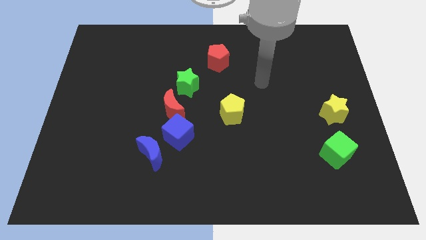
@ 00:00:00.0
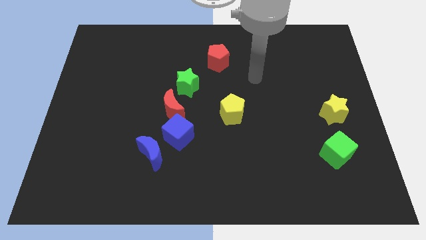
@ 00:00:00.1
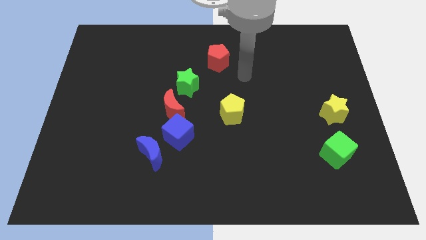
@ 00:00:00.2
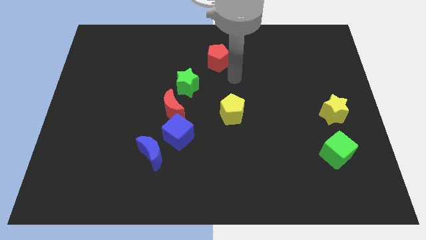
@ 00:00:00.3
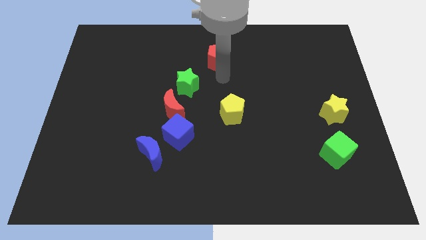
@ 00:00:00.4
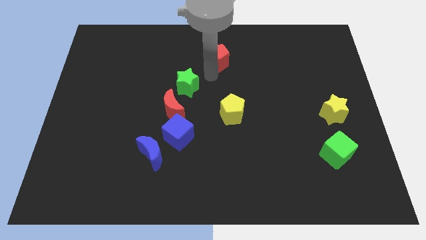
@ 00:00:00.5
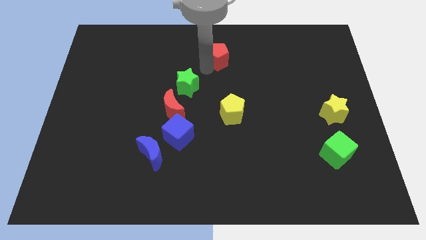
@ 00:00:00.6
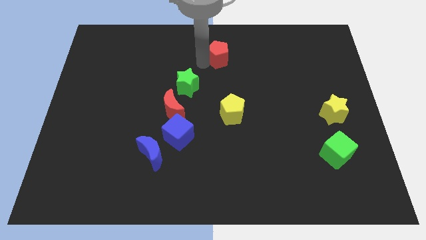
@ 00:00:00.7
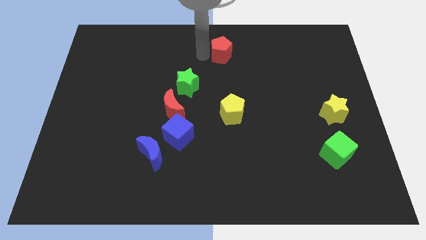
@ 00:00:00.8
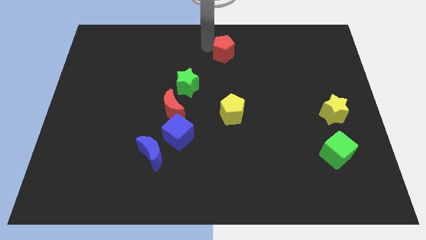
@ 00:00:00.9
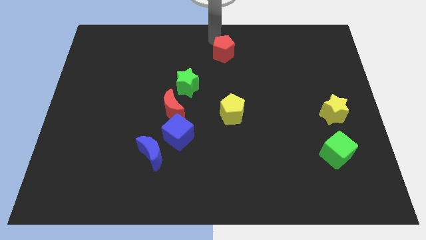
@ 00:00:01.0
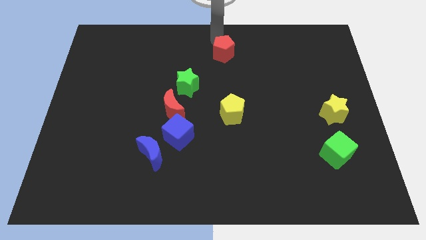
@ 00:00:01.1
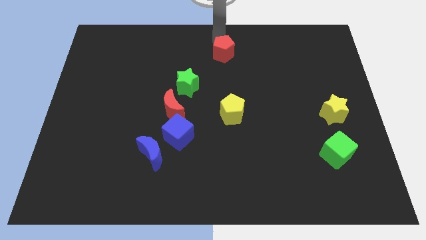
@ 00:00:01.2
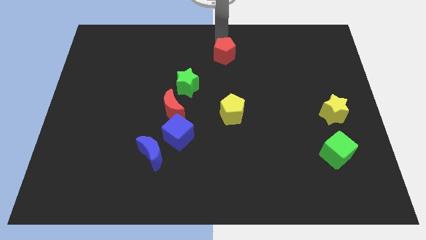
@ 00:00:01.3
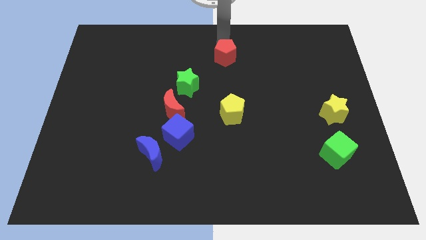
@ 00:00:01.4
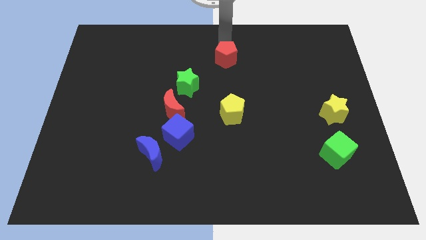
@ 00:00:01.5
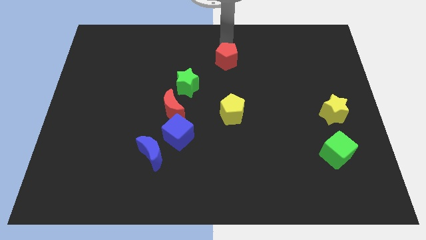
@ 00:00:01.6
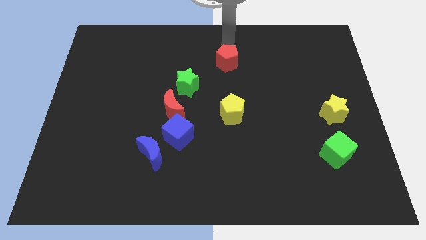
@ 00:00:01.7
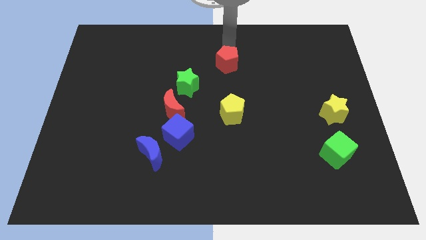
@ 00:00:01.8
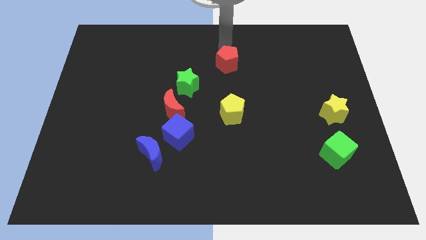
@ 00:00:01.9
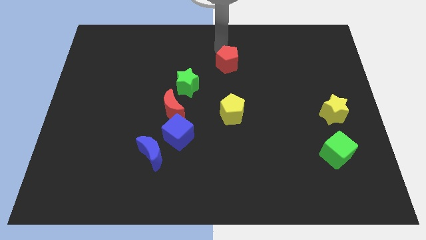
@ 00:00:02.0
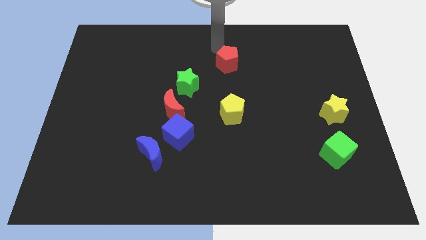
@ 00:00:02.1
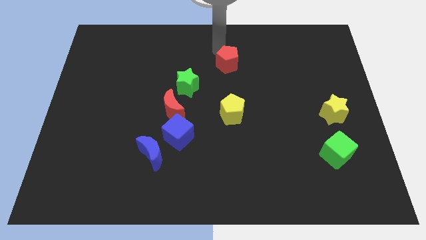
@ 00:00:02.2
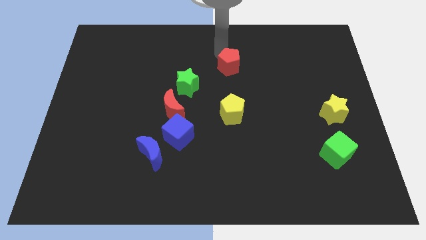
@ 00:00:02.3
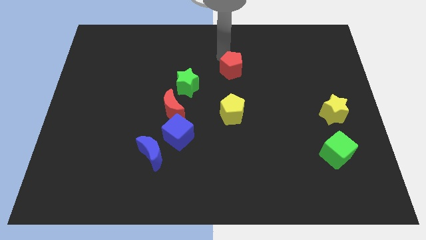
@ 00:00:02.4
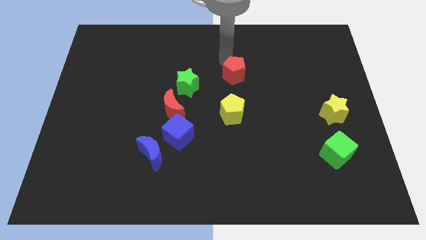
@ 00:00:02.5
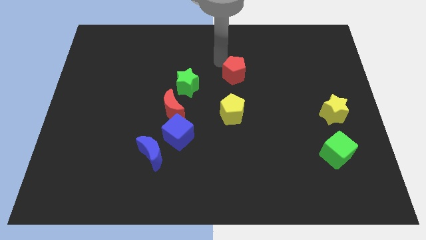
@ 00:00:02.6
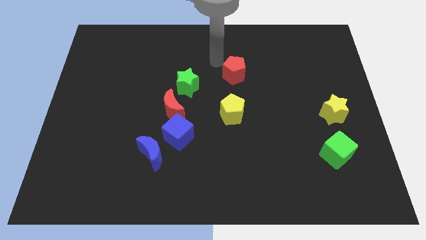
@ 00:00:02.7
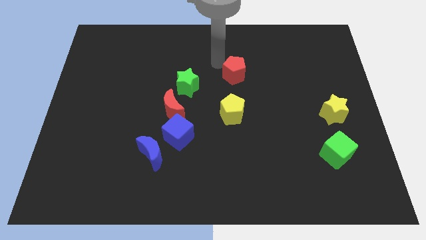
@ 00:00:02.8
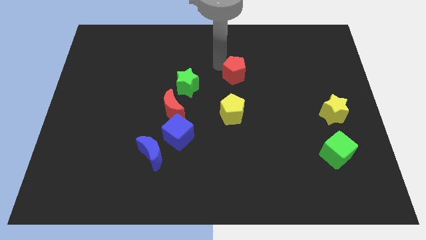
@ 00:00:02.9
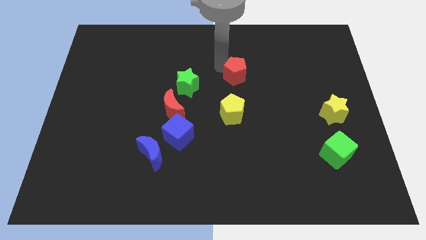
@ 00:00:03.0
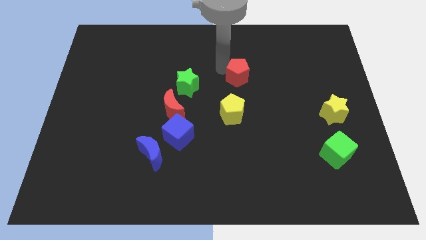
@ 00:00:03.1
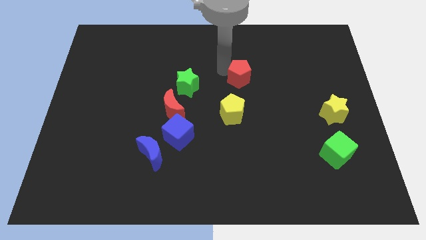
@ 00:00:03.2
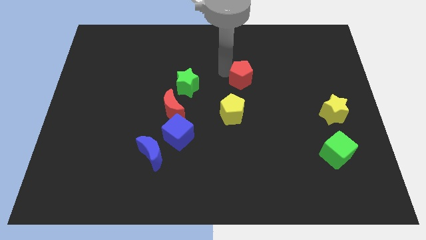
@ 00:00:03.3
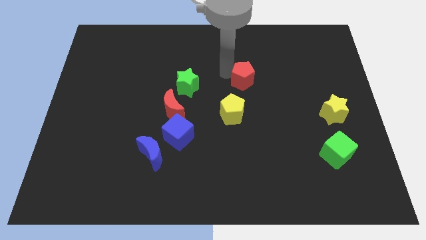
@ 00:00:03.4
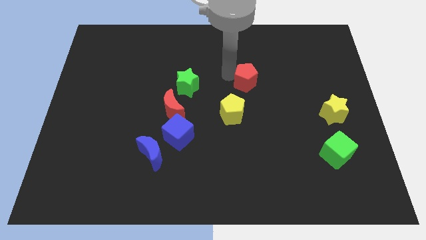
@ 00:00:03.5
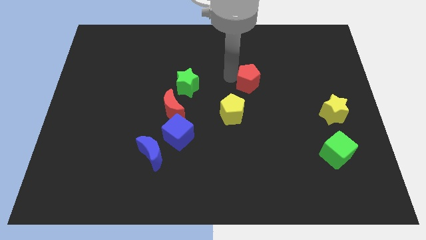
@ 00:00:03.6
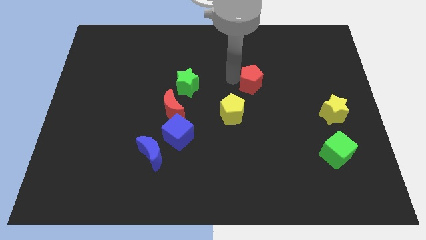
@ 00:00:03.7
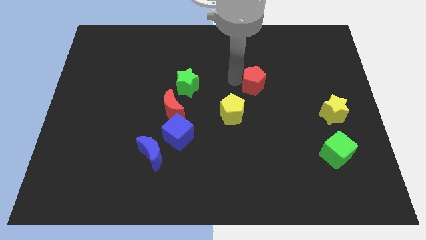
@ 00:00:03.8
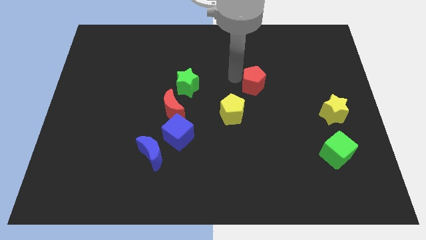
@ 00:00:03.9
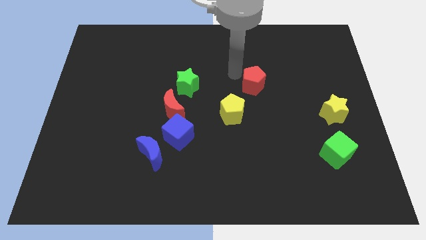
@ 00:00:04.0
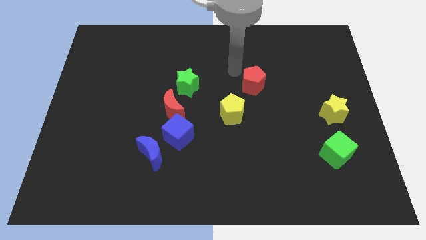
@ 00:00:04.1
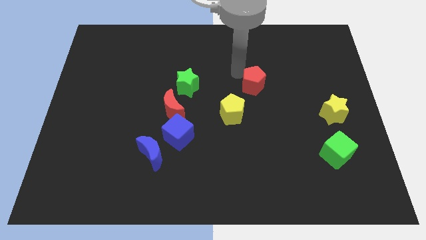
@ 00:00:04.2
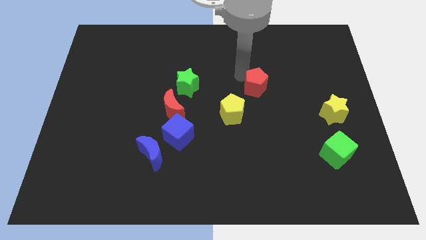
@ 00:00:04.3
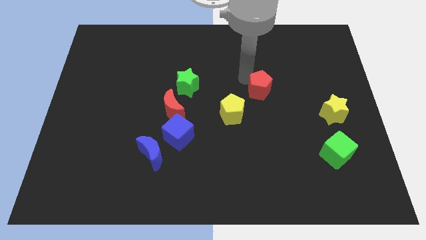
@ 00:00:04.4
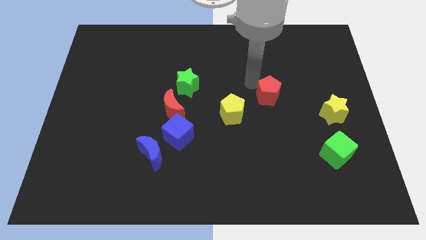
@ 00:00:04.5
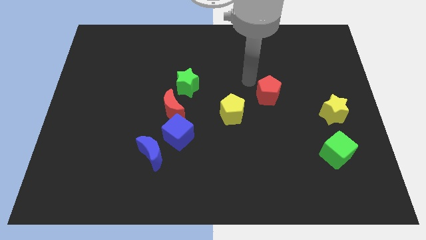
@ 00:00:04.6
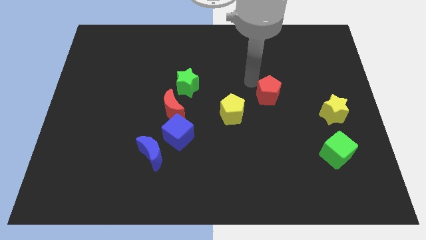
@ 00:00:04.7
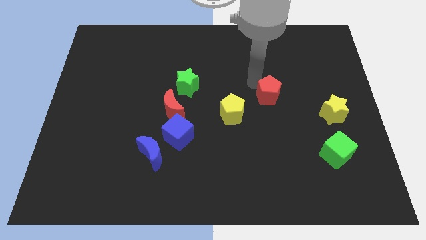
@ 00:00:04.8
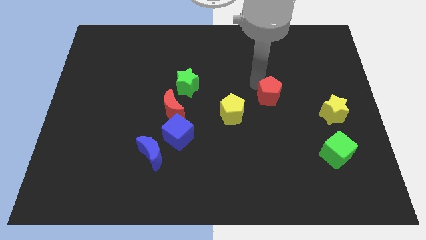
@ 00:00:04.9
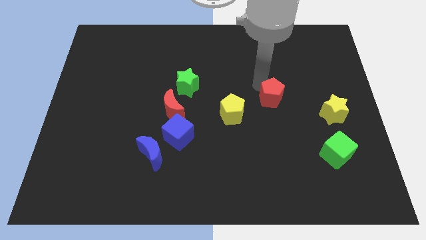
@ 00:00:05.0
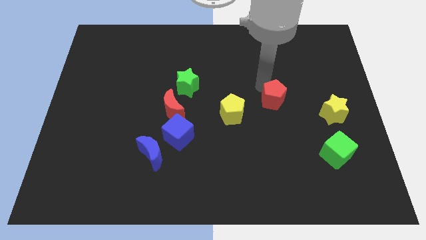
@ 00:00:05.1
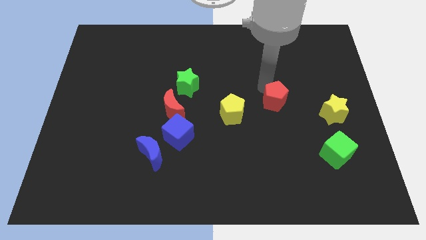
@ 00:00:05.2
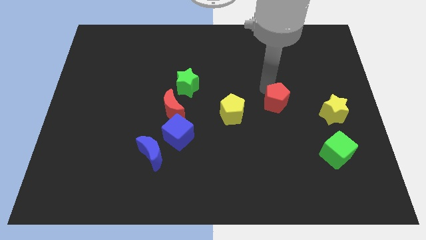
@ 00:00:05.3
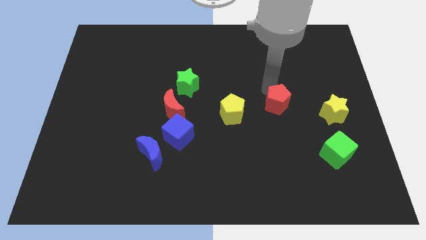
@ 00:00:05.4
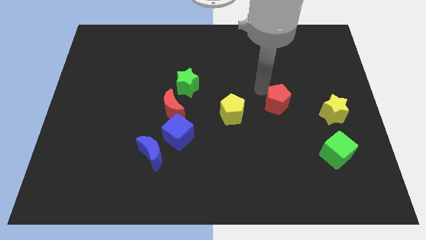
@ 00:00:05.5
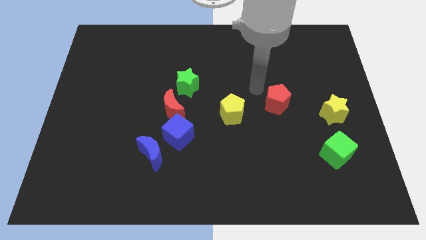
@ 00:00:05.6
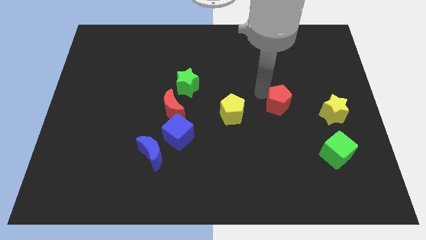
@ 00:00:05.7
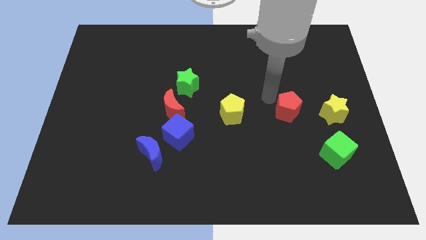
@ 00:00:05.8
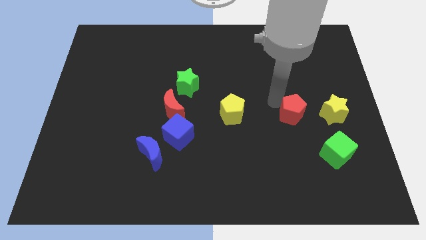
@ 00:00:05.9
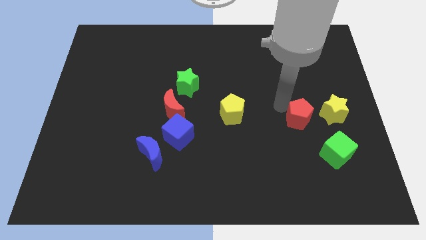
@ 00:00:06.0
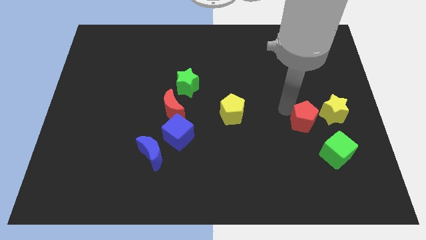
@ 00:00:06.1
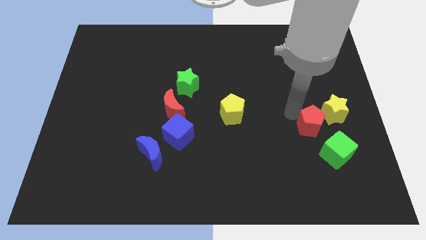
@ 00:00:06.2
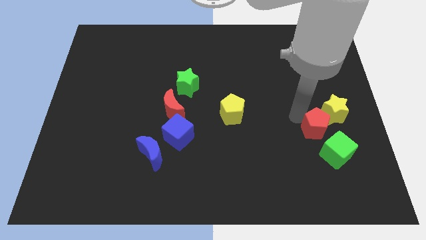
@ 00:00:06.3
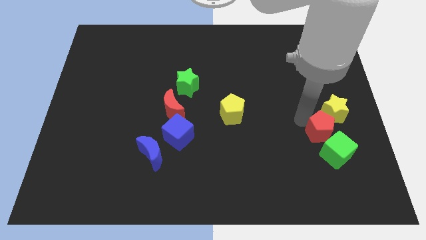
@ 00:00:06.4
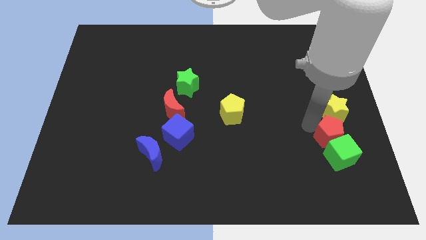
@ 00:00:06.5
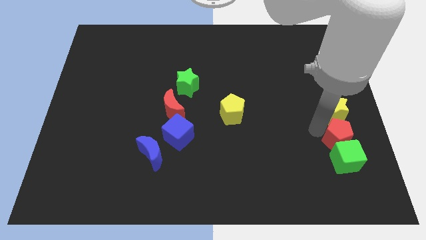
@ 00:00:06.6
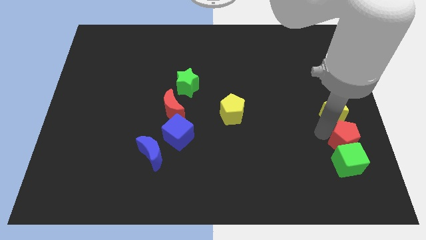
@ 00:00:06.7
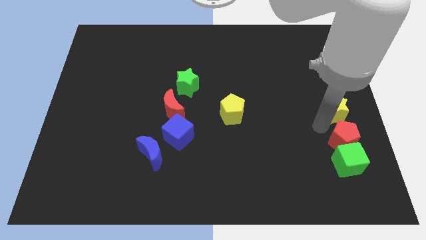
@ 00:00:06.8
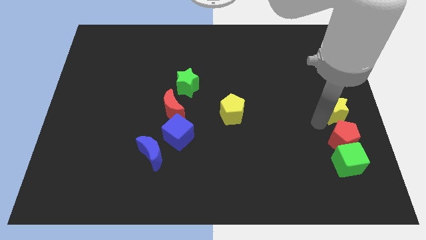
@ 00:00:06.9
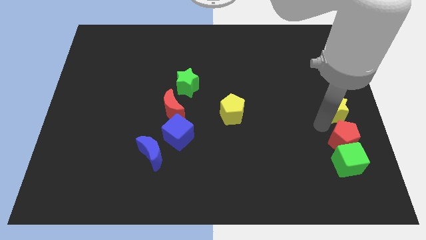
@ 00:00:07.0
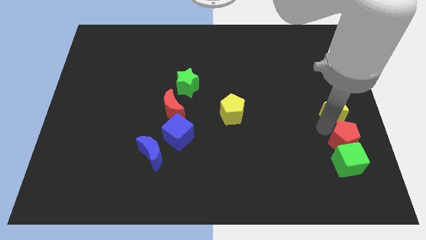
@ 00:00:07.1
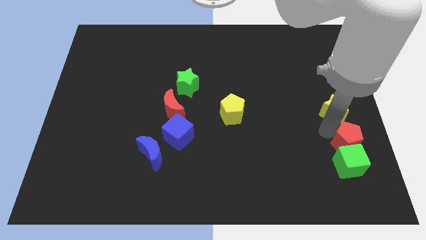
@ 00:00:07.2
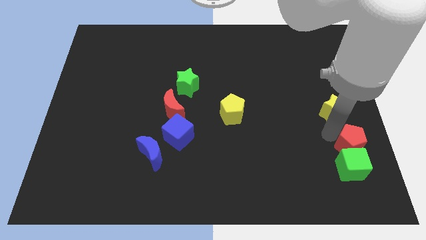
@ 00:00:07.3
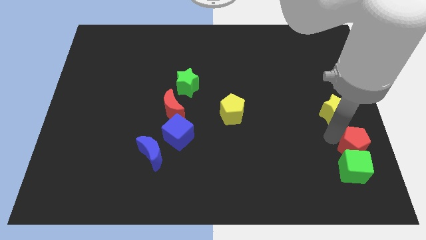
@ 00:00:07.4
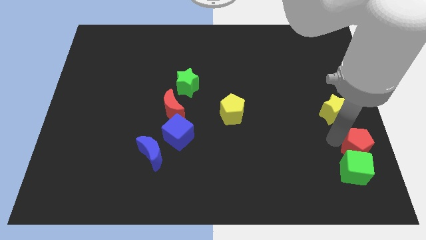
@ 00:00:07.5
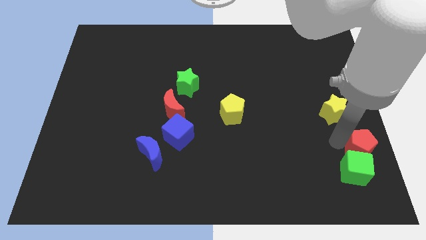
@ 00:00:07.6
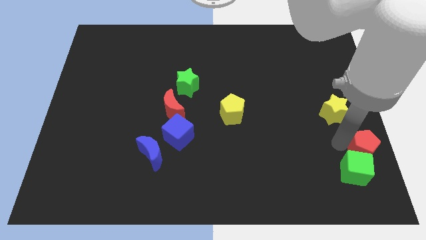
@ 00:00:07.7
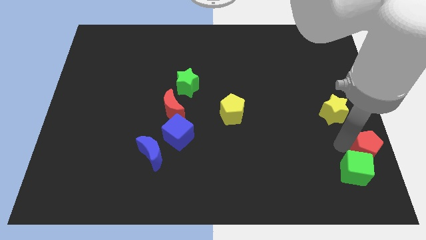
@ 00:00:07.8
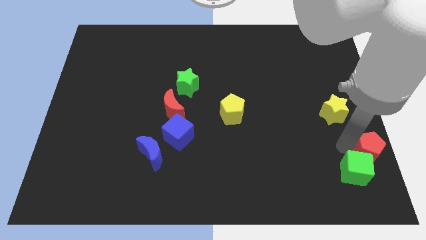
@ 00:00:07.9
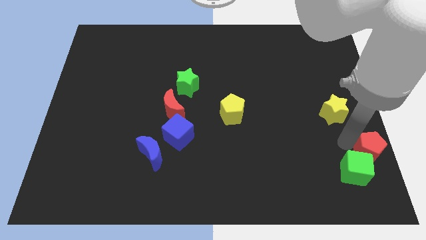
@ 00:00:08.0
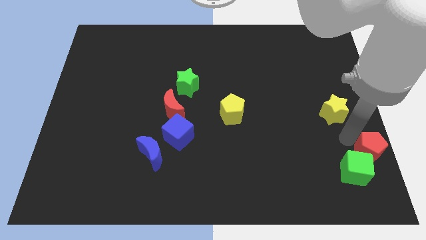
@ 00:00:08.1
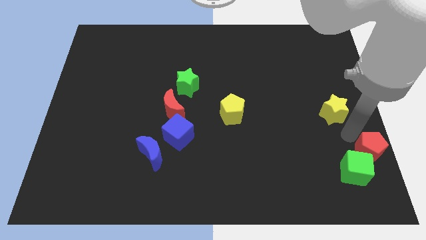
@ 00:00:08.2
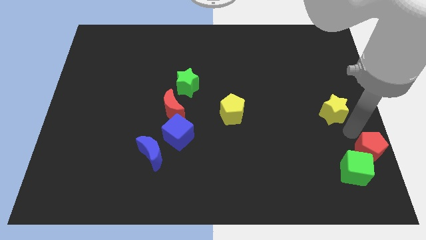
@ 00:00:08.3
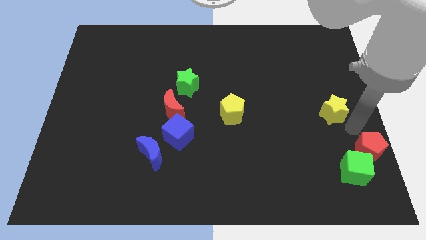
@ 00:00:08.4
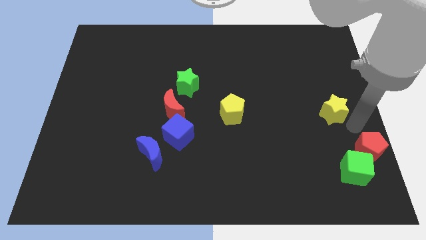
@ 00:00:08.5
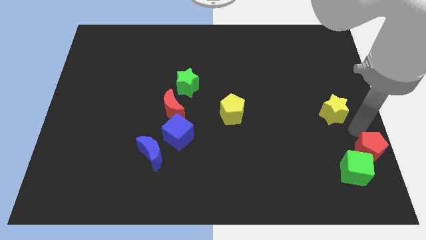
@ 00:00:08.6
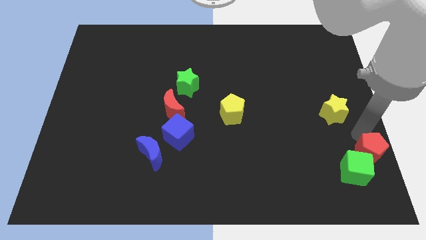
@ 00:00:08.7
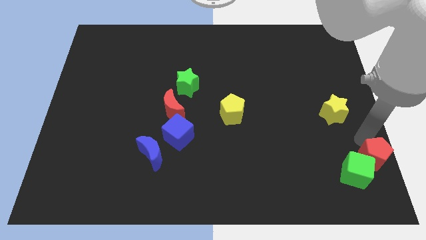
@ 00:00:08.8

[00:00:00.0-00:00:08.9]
put the red pentagon to the lower right corner
